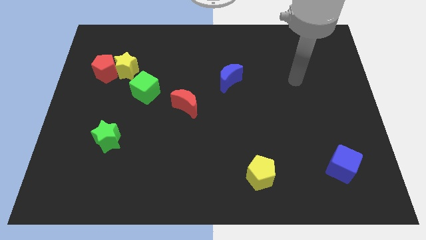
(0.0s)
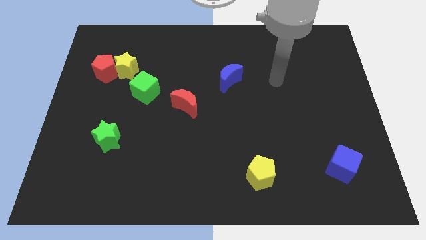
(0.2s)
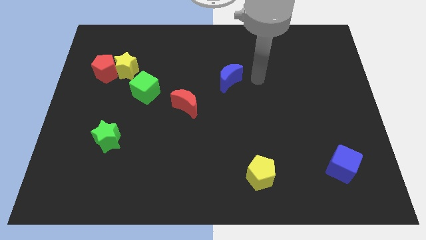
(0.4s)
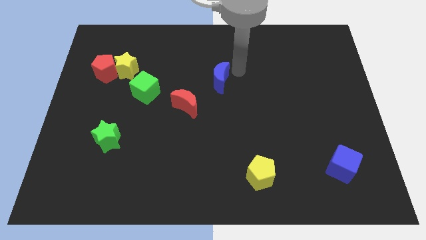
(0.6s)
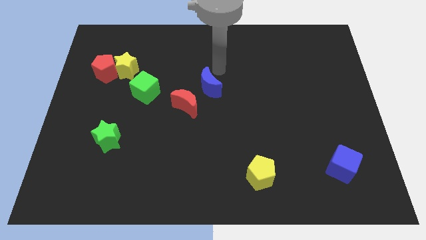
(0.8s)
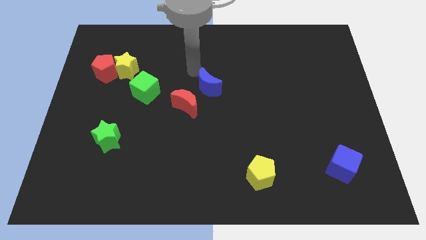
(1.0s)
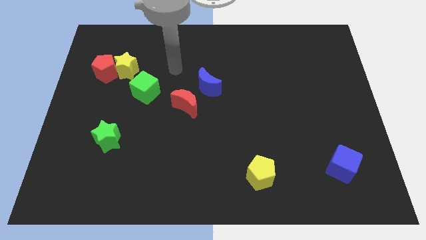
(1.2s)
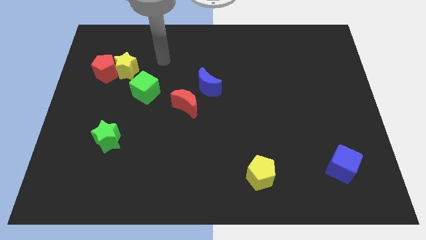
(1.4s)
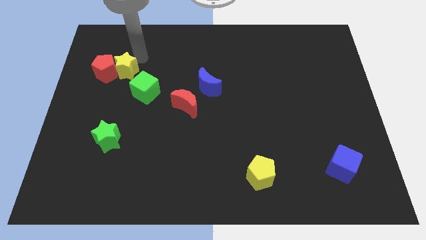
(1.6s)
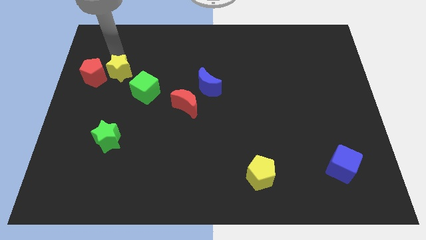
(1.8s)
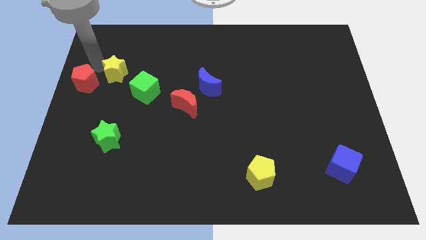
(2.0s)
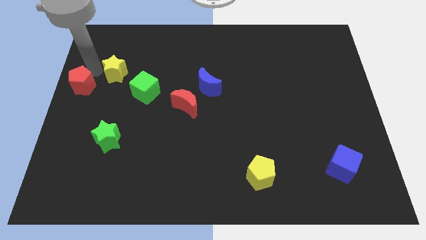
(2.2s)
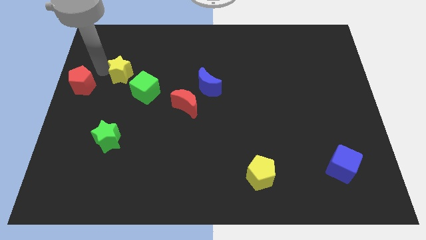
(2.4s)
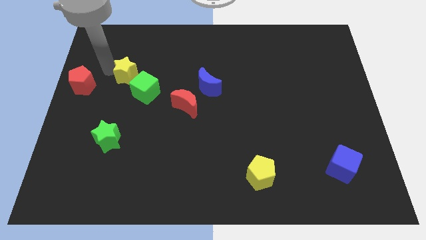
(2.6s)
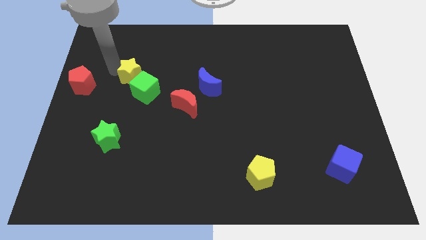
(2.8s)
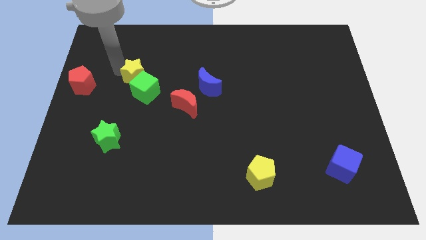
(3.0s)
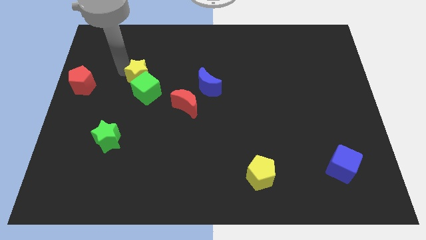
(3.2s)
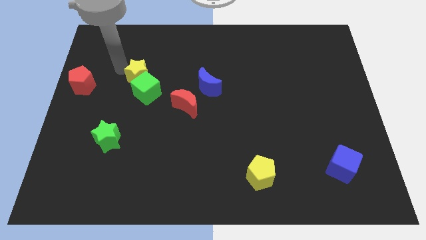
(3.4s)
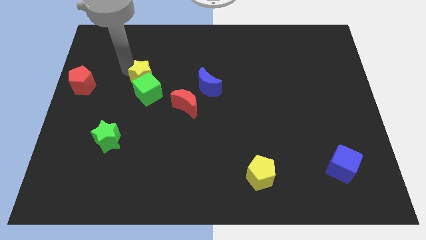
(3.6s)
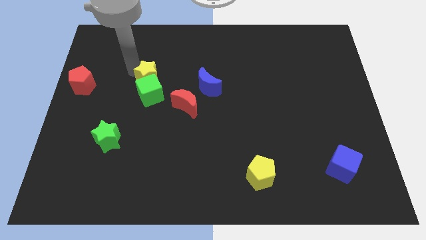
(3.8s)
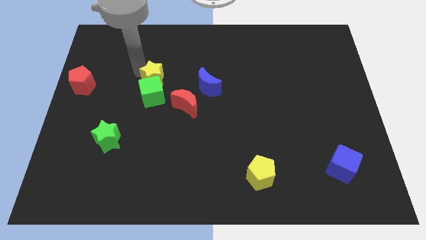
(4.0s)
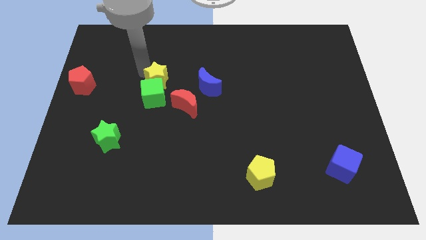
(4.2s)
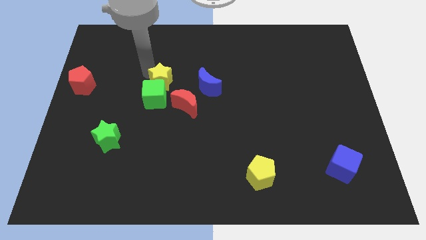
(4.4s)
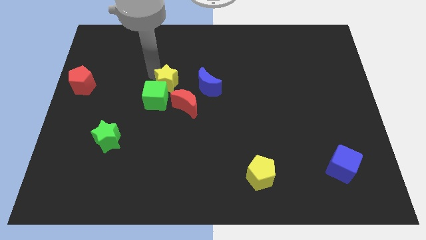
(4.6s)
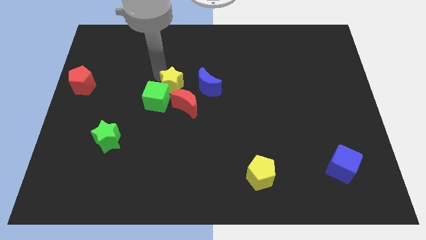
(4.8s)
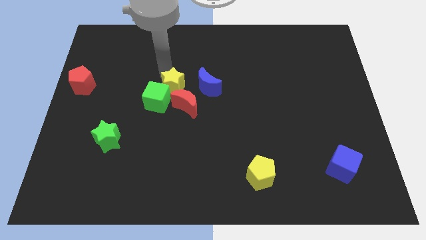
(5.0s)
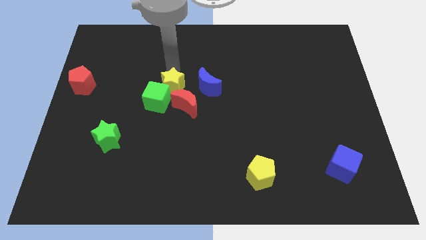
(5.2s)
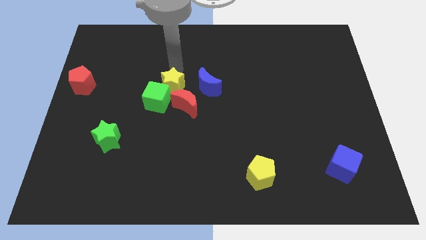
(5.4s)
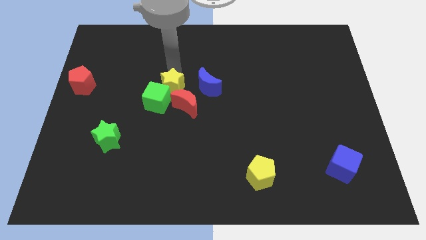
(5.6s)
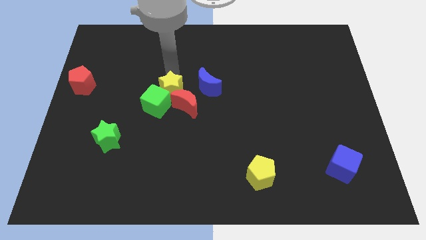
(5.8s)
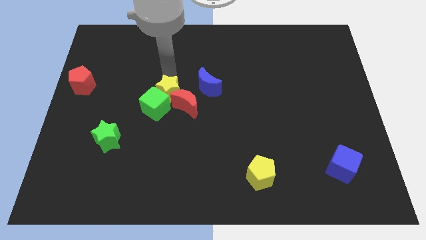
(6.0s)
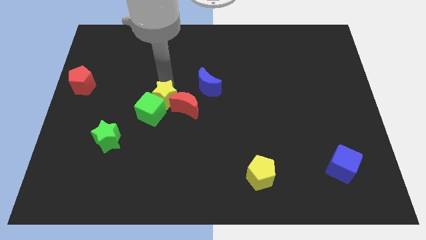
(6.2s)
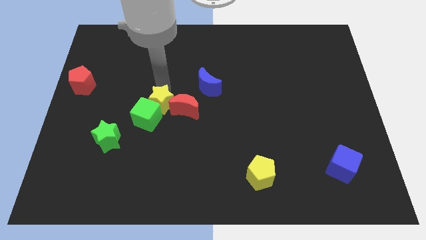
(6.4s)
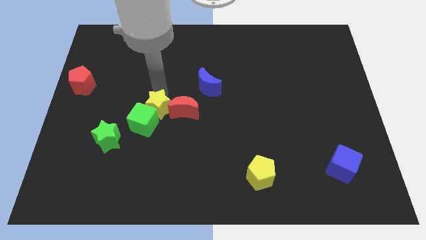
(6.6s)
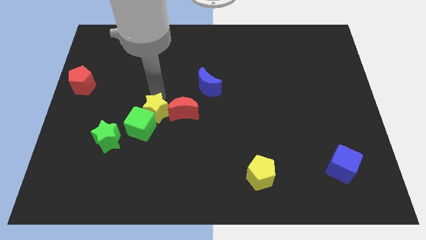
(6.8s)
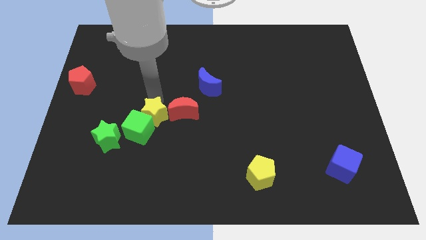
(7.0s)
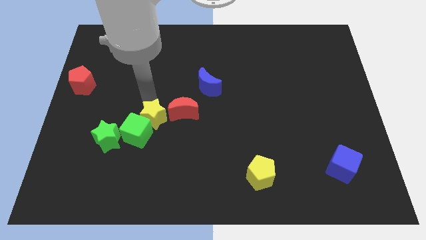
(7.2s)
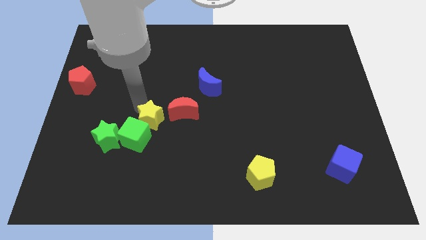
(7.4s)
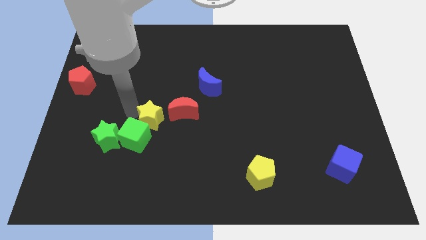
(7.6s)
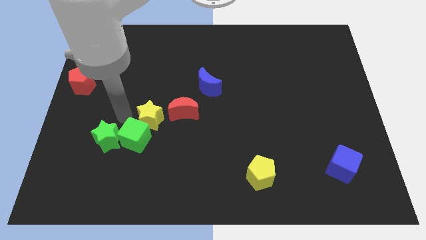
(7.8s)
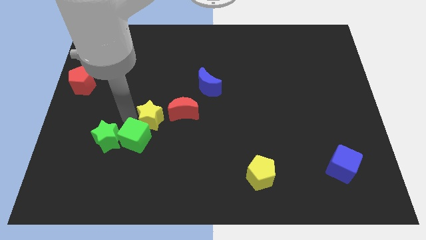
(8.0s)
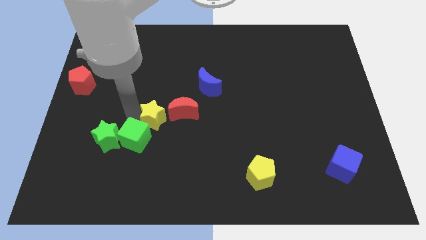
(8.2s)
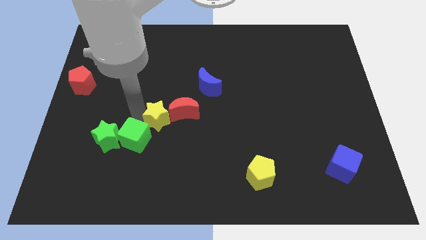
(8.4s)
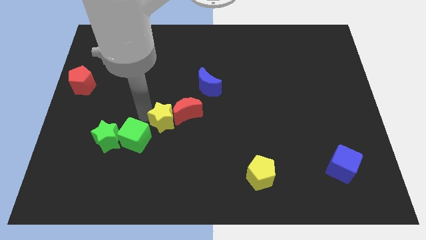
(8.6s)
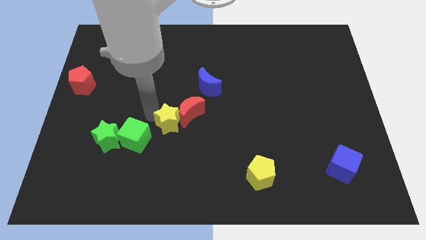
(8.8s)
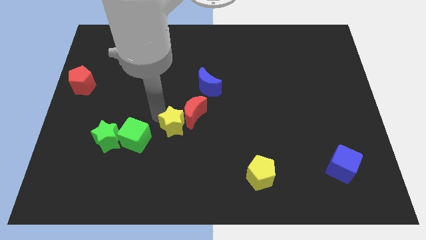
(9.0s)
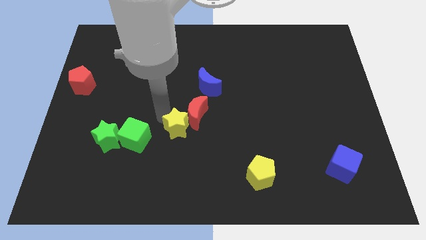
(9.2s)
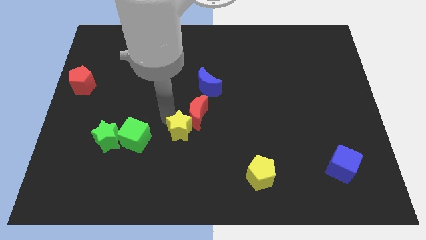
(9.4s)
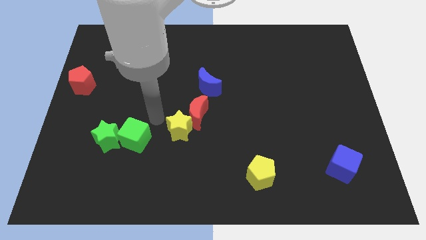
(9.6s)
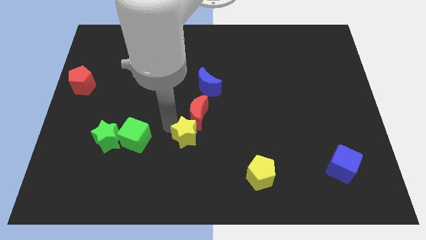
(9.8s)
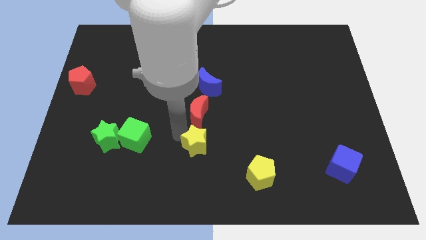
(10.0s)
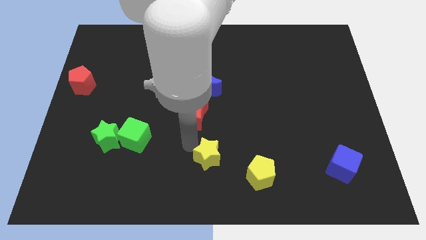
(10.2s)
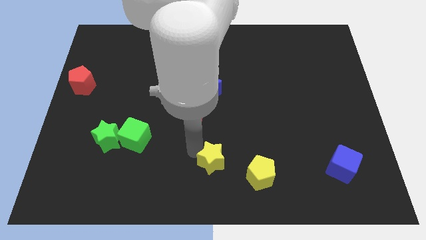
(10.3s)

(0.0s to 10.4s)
put the yellow star to the top left side of the yellow pentagon

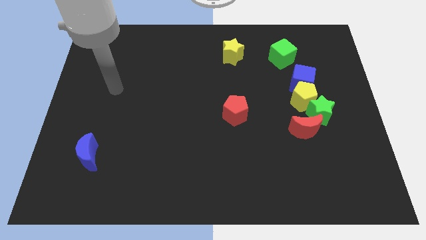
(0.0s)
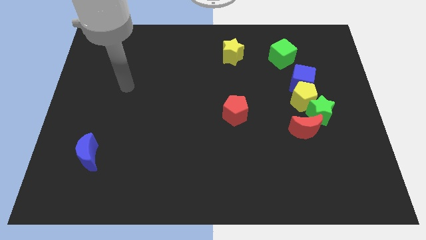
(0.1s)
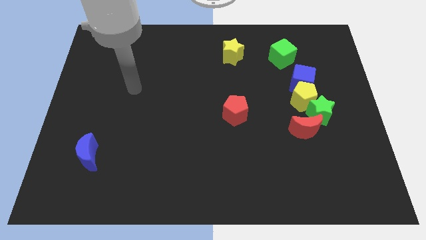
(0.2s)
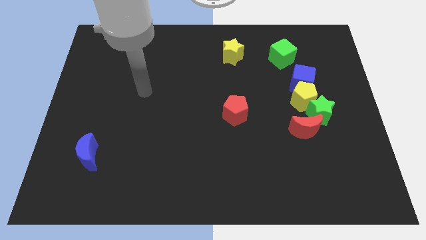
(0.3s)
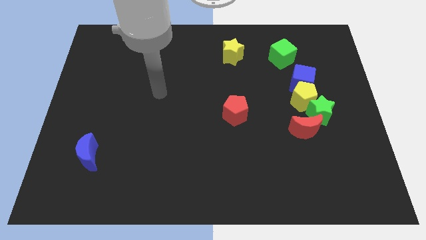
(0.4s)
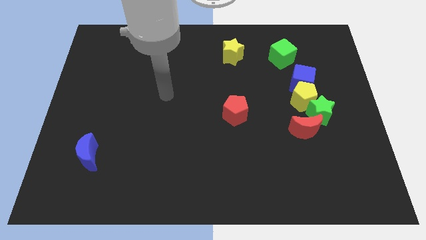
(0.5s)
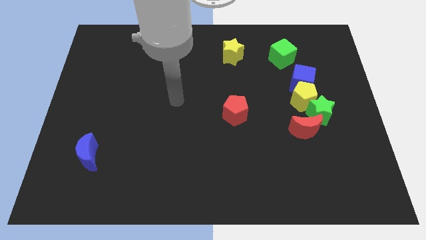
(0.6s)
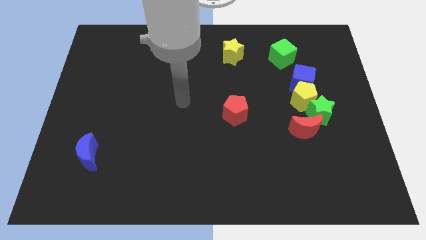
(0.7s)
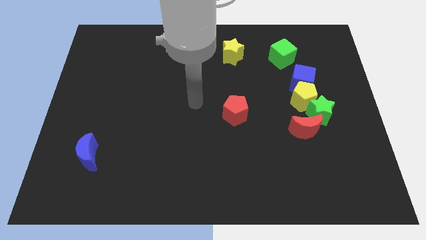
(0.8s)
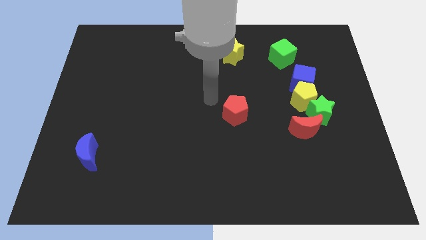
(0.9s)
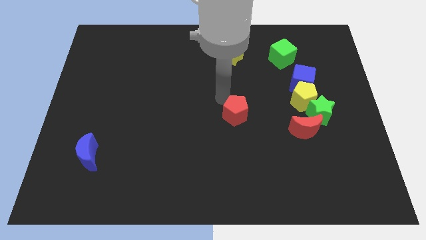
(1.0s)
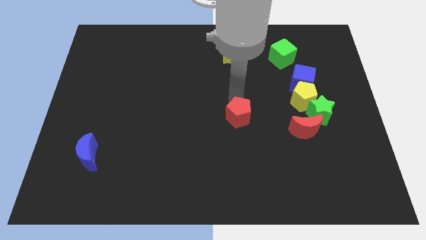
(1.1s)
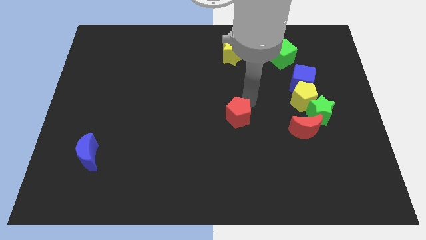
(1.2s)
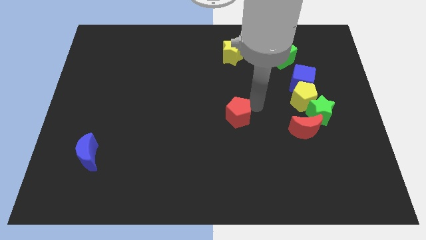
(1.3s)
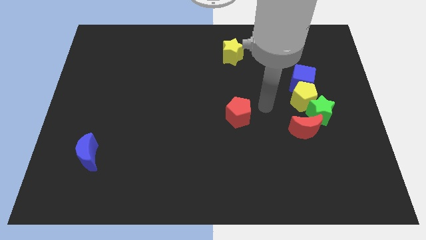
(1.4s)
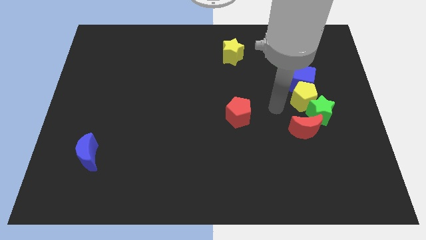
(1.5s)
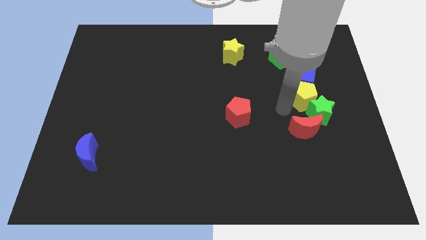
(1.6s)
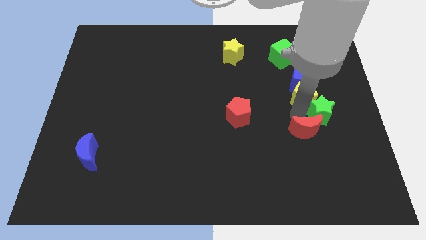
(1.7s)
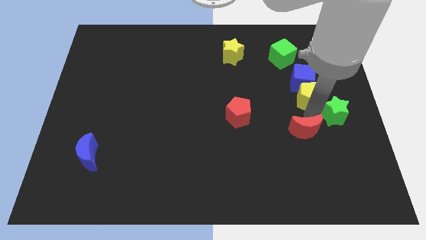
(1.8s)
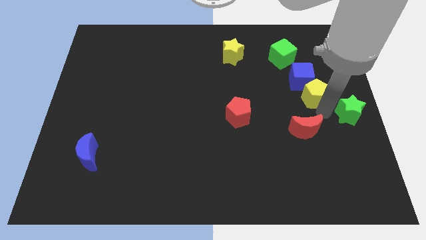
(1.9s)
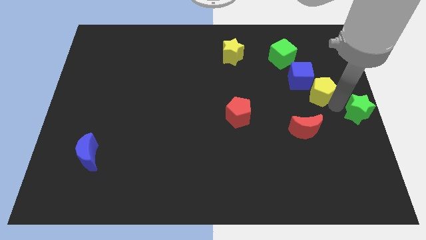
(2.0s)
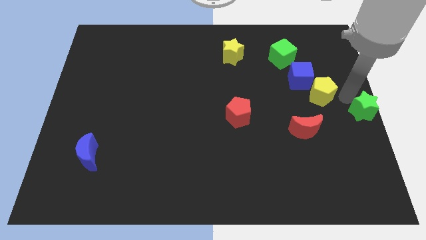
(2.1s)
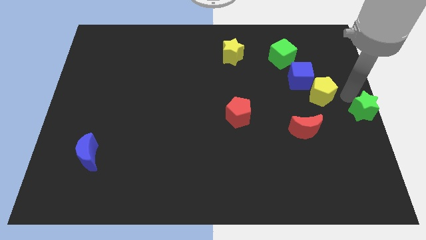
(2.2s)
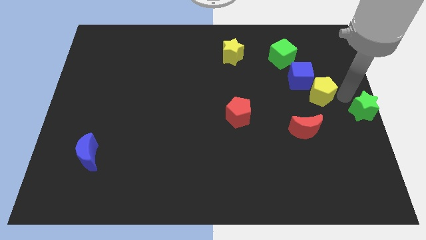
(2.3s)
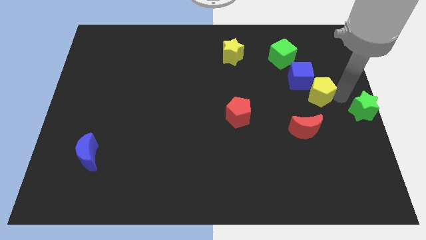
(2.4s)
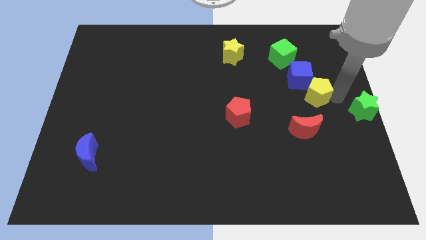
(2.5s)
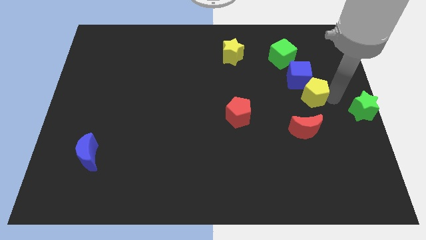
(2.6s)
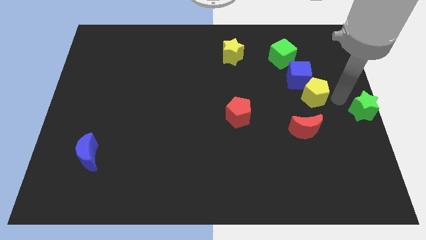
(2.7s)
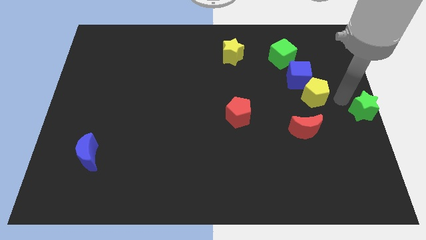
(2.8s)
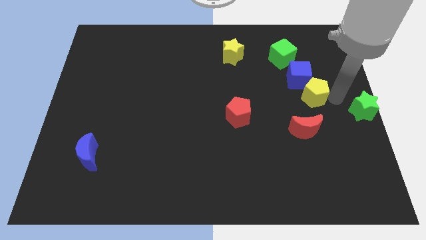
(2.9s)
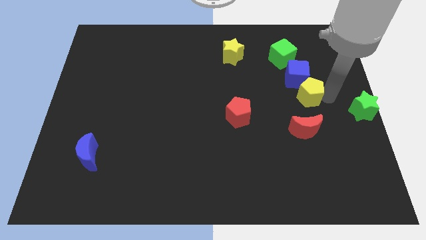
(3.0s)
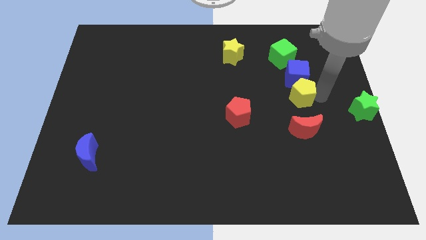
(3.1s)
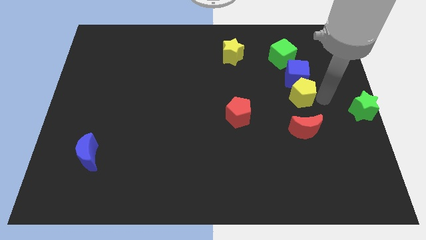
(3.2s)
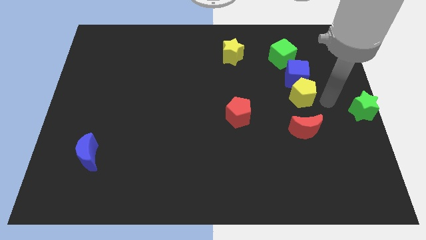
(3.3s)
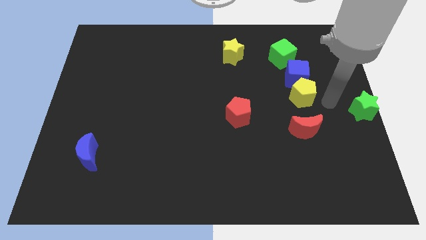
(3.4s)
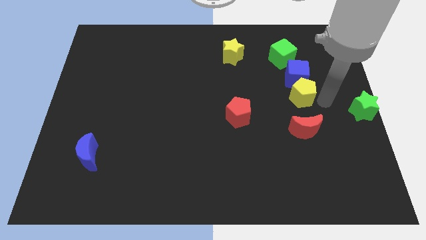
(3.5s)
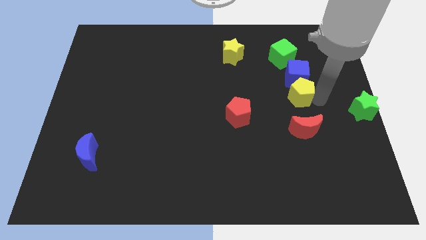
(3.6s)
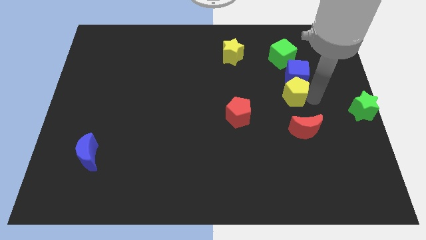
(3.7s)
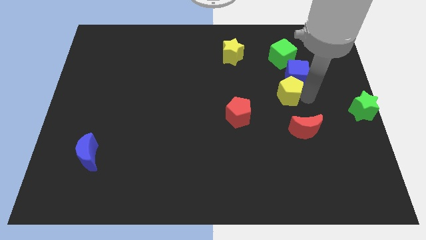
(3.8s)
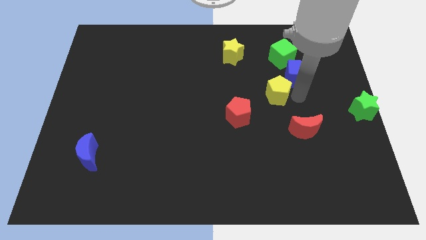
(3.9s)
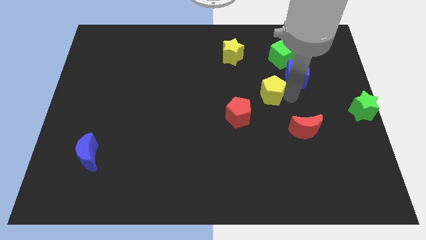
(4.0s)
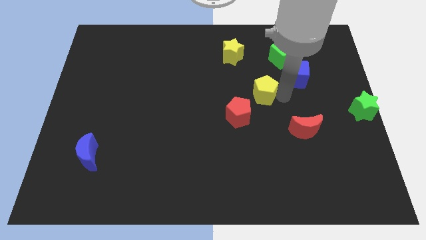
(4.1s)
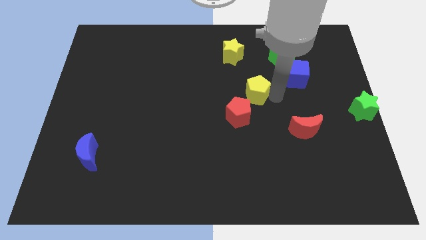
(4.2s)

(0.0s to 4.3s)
push the yellow pentagon left of the blue cube
